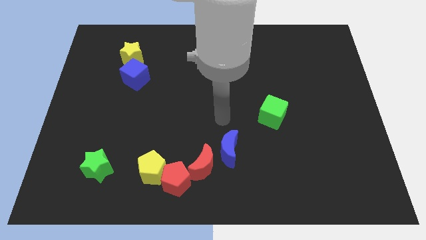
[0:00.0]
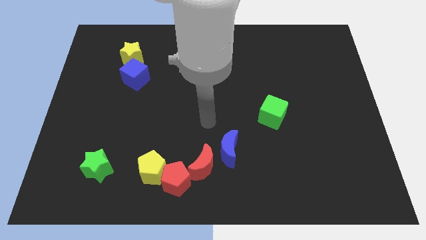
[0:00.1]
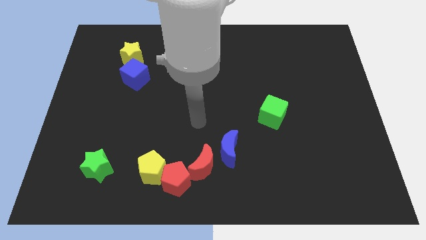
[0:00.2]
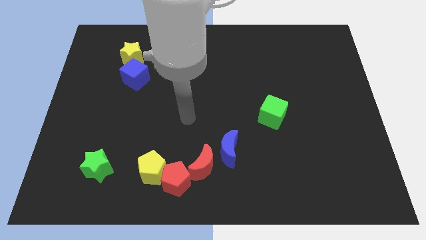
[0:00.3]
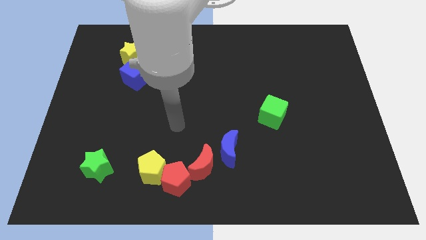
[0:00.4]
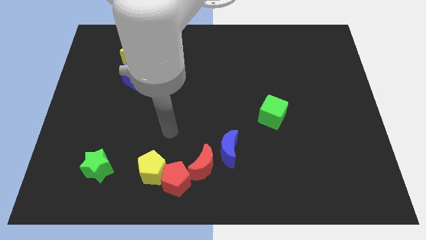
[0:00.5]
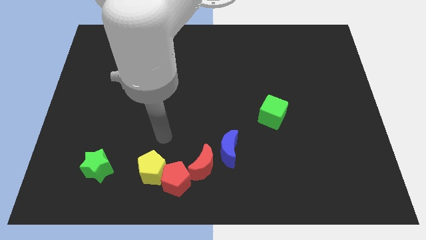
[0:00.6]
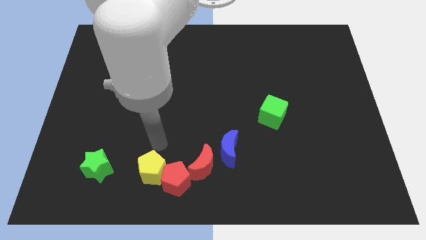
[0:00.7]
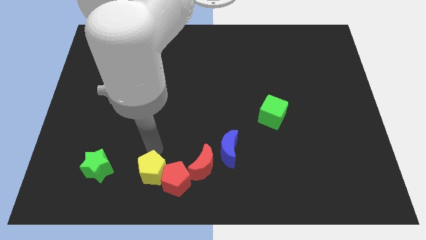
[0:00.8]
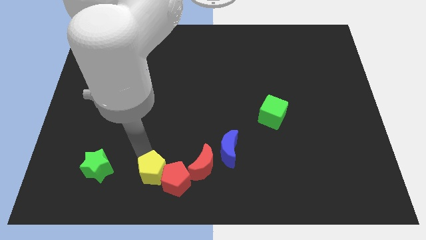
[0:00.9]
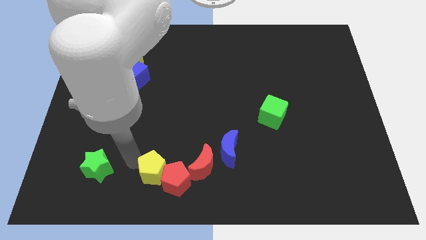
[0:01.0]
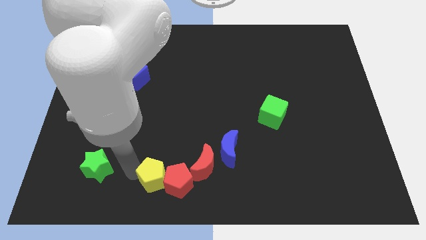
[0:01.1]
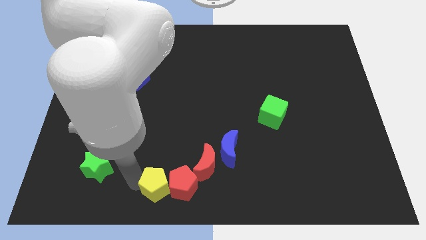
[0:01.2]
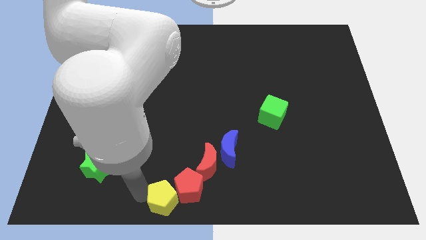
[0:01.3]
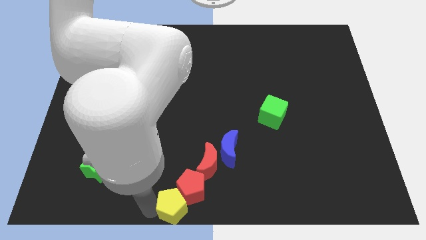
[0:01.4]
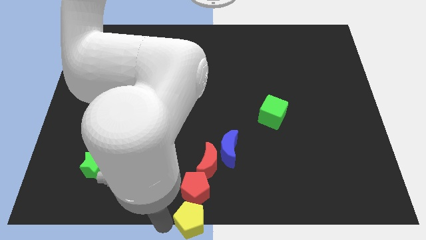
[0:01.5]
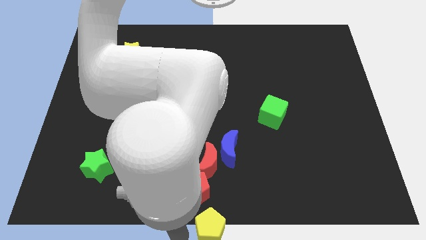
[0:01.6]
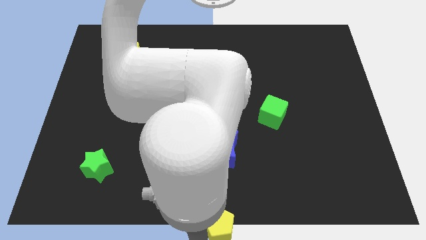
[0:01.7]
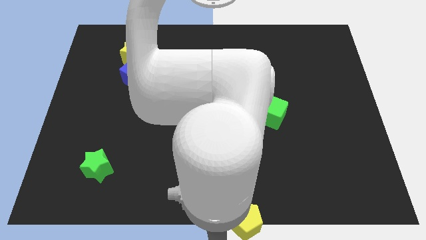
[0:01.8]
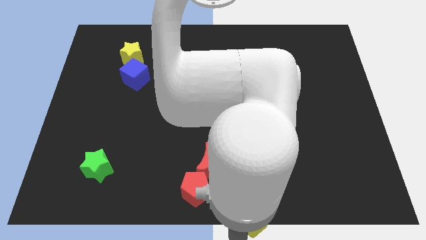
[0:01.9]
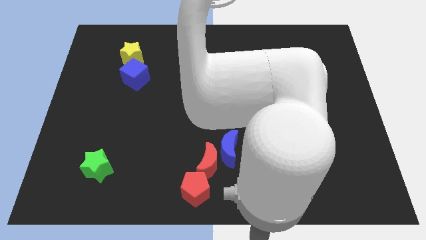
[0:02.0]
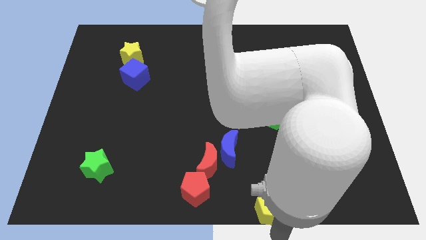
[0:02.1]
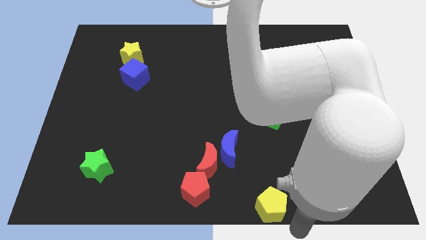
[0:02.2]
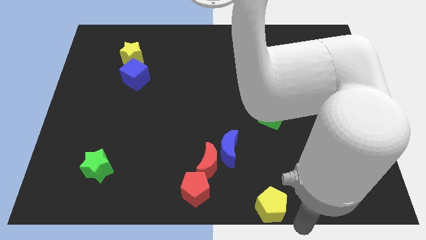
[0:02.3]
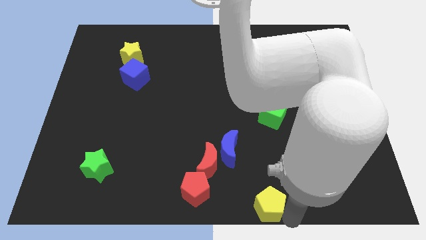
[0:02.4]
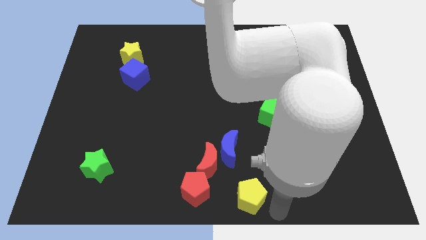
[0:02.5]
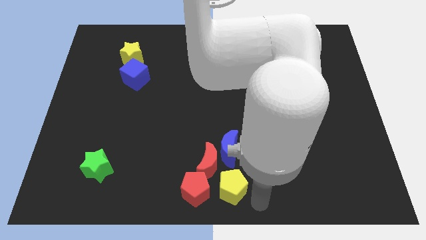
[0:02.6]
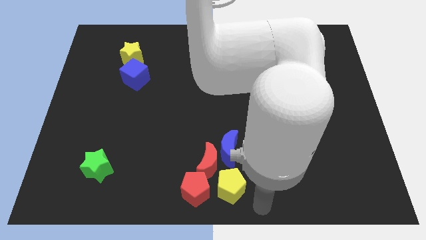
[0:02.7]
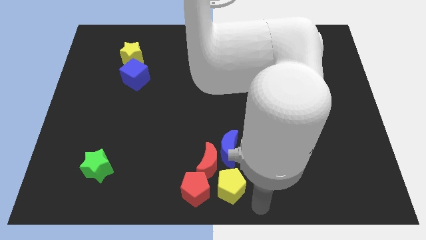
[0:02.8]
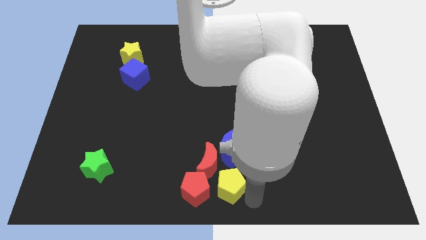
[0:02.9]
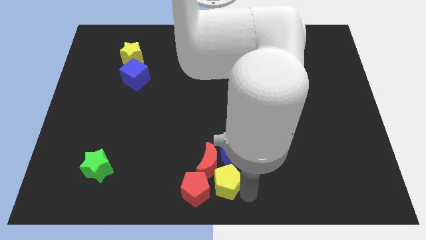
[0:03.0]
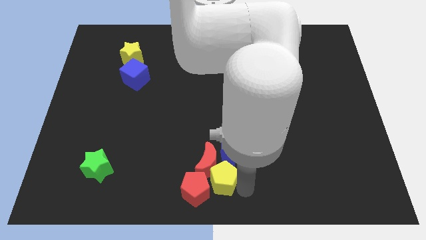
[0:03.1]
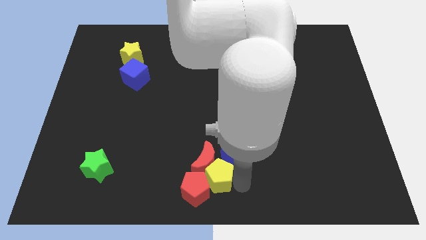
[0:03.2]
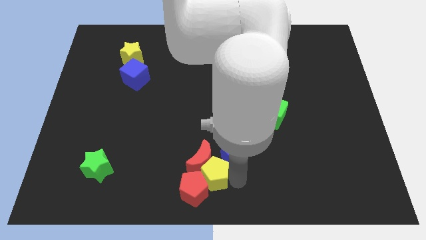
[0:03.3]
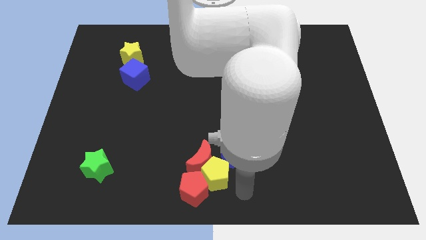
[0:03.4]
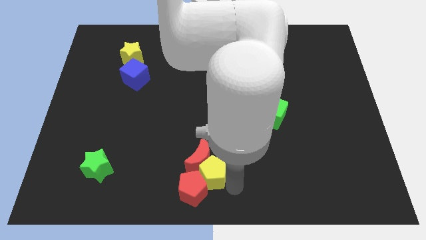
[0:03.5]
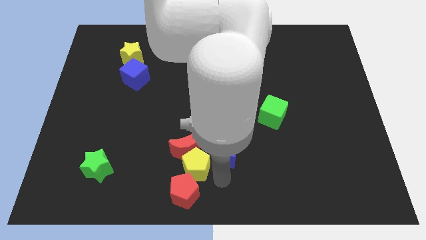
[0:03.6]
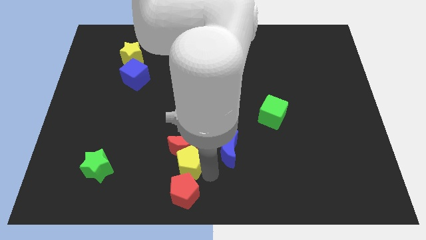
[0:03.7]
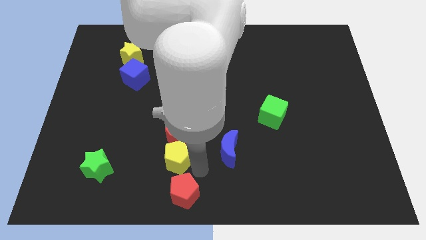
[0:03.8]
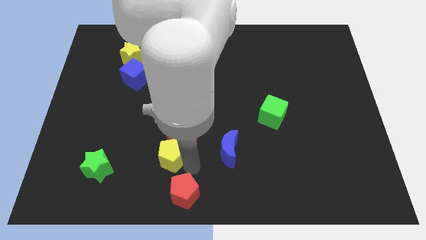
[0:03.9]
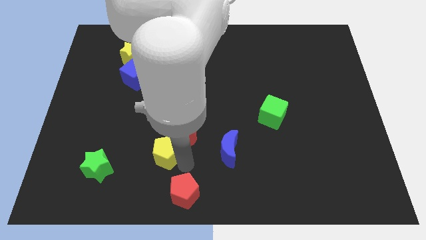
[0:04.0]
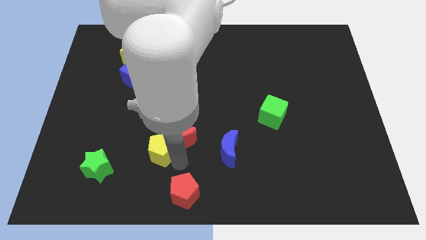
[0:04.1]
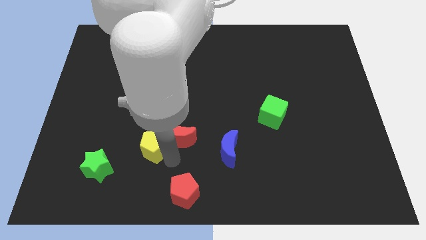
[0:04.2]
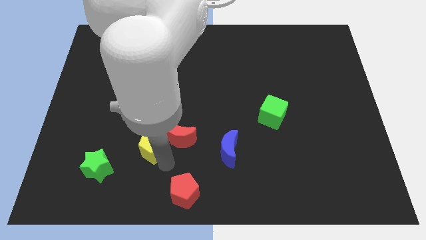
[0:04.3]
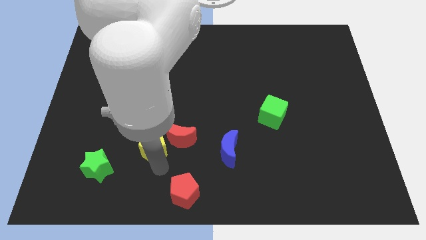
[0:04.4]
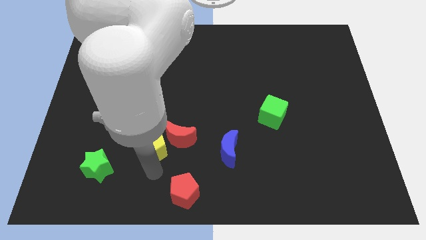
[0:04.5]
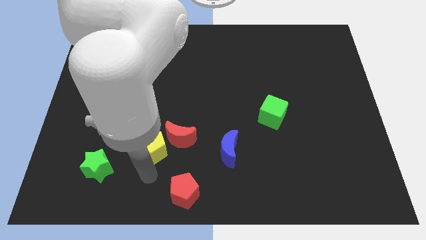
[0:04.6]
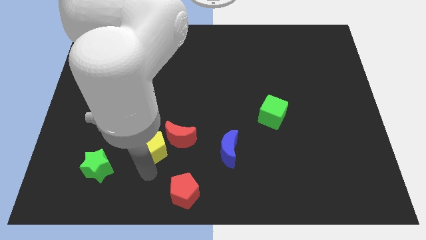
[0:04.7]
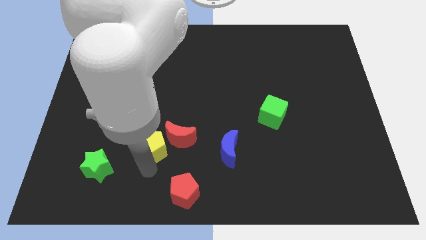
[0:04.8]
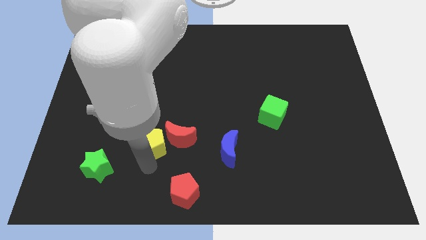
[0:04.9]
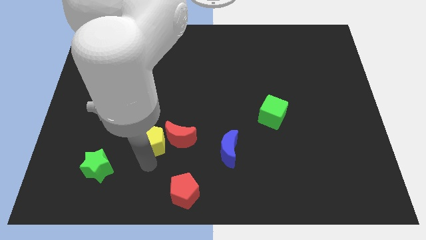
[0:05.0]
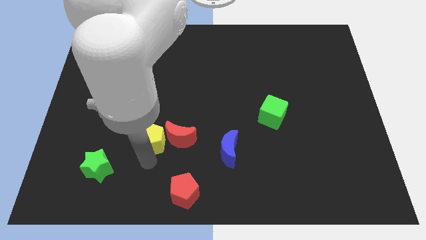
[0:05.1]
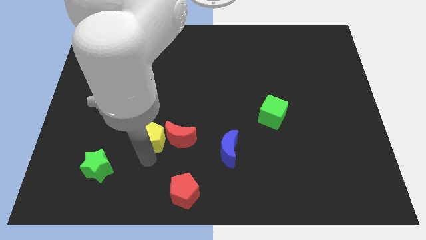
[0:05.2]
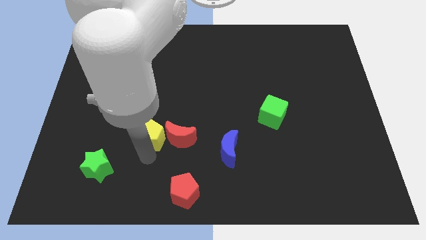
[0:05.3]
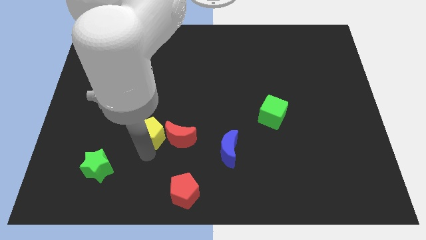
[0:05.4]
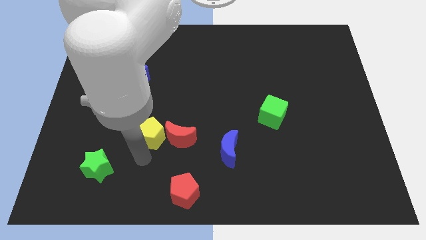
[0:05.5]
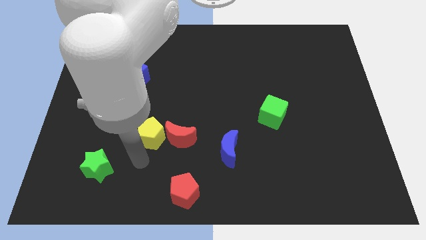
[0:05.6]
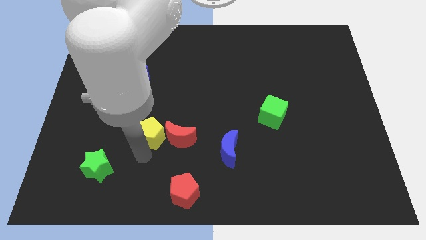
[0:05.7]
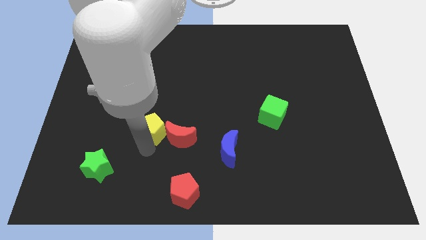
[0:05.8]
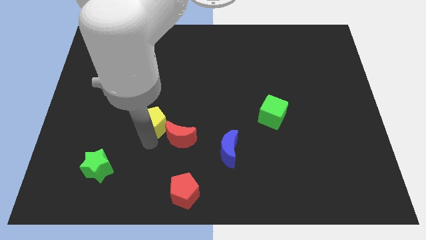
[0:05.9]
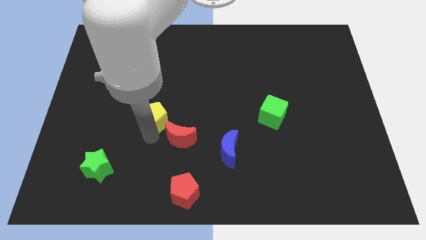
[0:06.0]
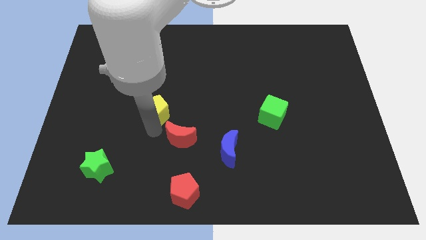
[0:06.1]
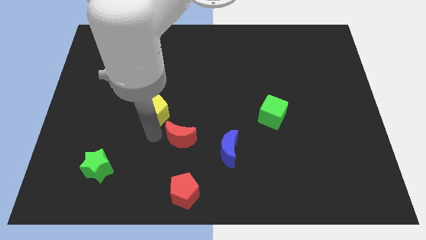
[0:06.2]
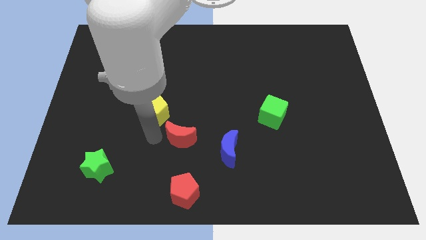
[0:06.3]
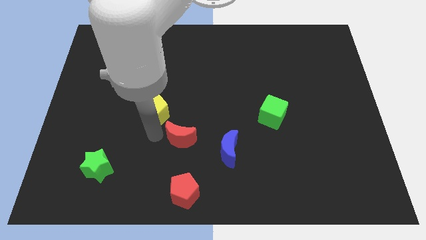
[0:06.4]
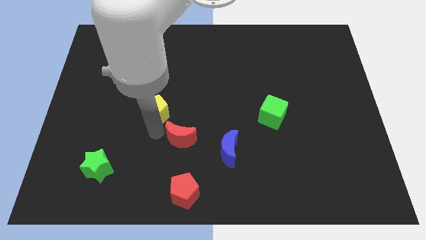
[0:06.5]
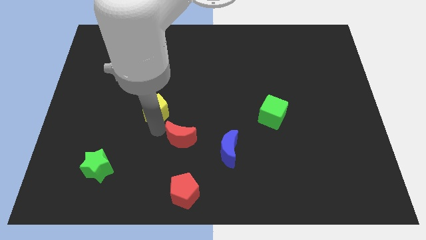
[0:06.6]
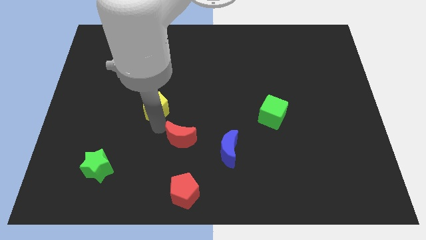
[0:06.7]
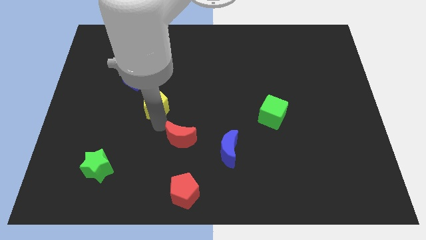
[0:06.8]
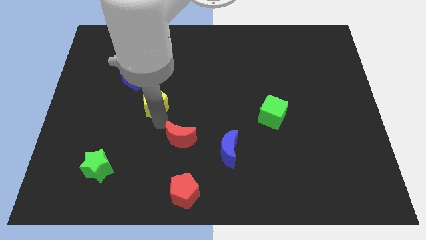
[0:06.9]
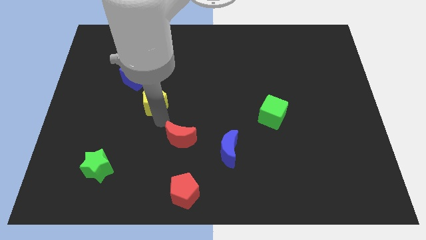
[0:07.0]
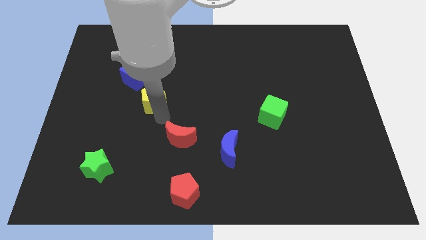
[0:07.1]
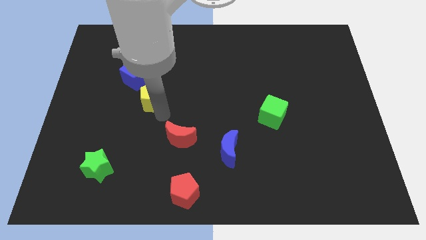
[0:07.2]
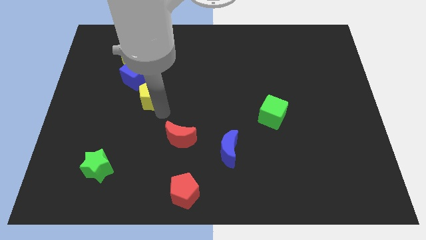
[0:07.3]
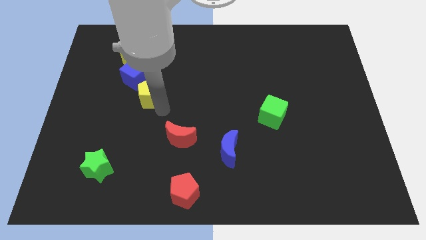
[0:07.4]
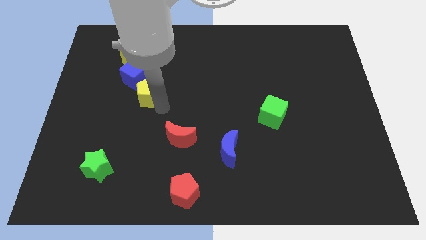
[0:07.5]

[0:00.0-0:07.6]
move the yellow pentagon up

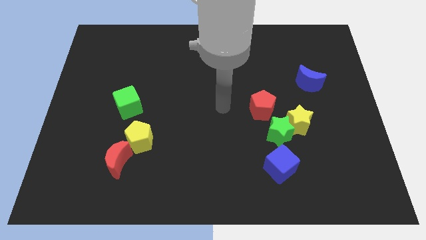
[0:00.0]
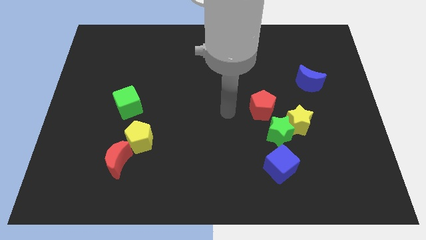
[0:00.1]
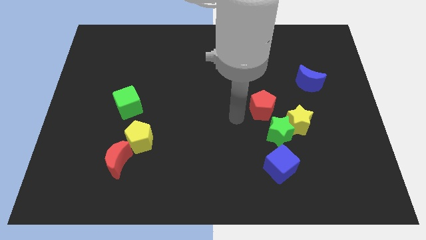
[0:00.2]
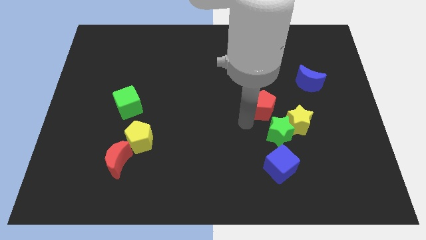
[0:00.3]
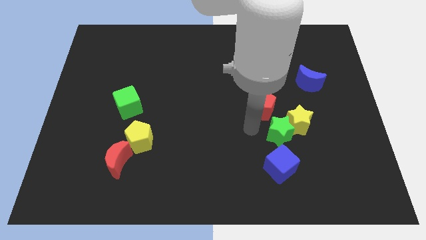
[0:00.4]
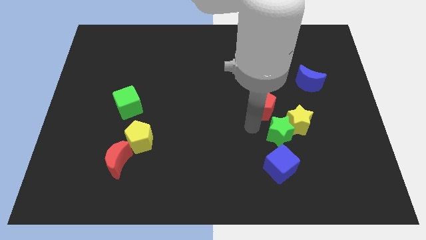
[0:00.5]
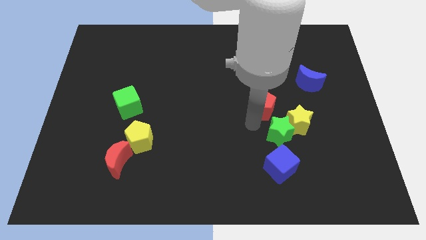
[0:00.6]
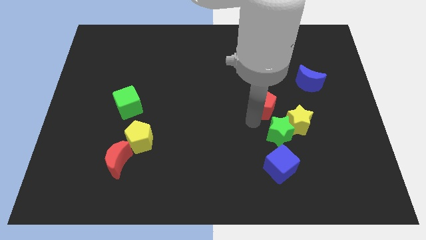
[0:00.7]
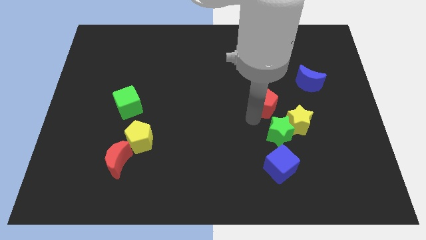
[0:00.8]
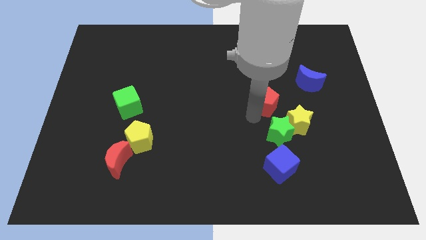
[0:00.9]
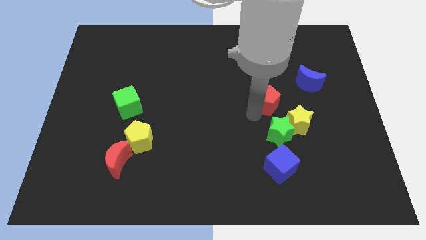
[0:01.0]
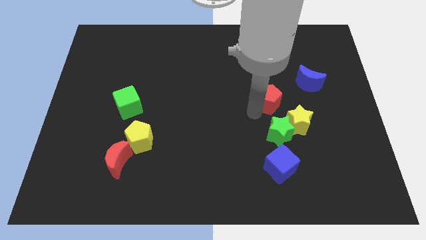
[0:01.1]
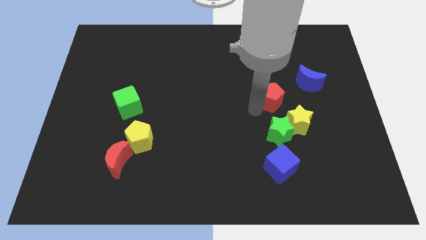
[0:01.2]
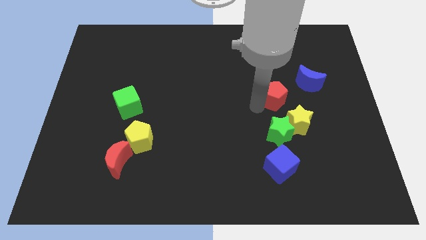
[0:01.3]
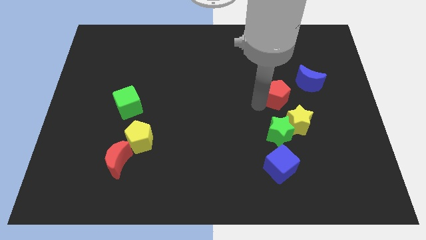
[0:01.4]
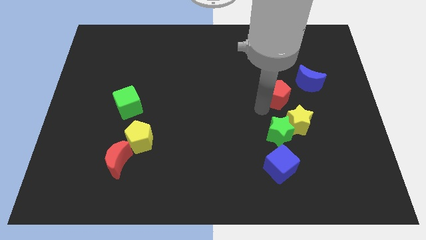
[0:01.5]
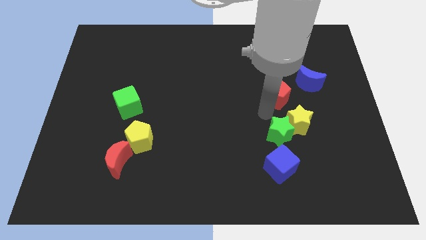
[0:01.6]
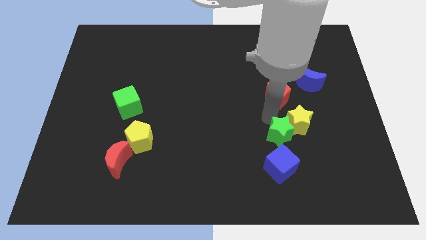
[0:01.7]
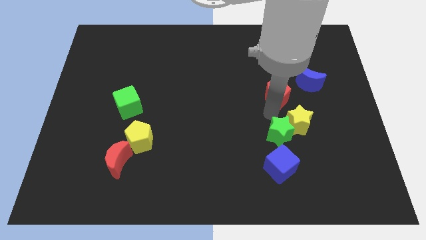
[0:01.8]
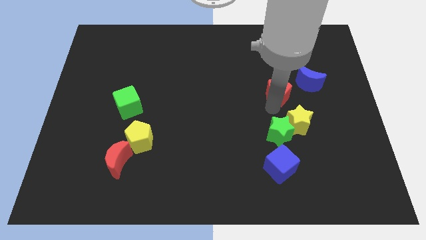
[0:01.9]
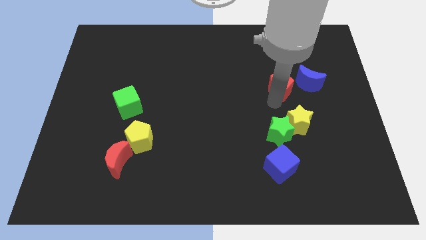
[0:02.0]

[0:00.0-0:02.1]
push the red pentagon up and right diagonally a little bit
